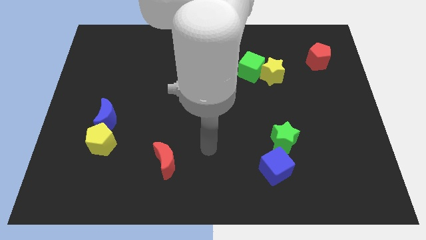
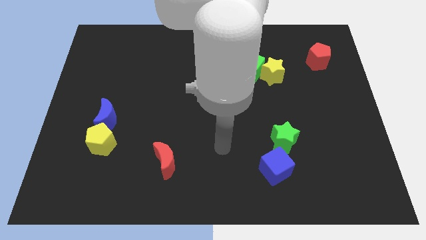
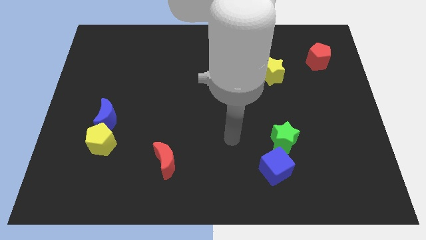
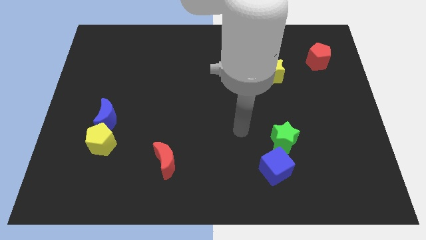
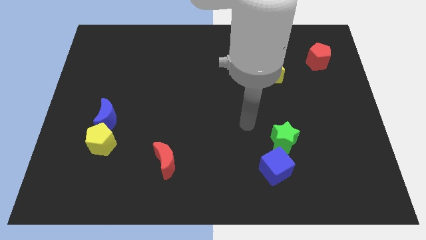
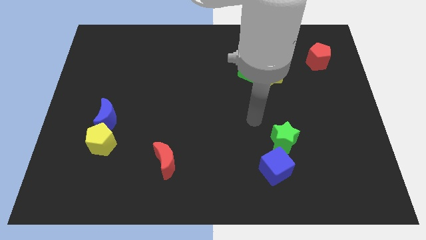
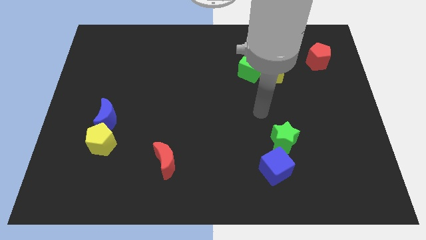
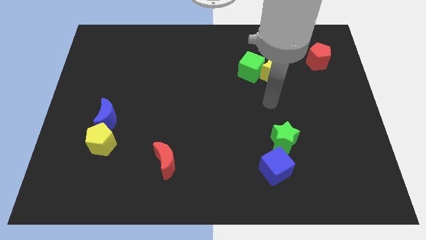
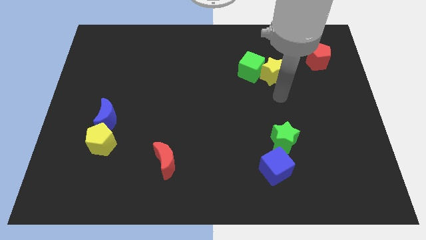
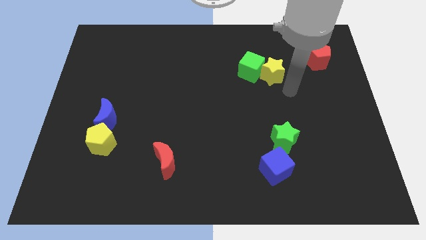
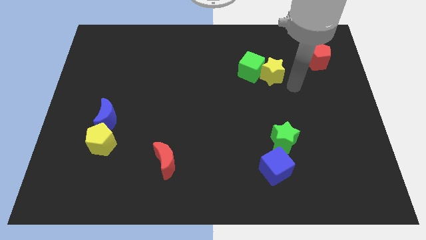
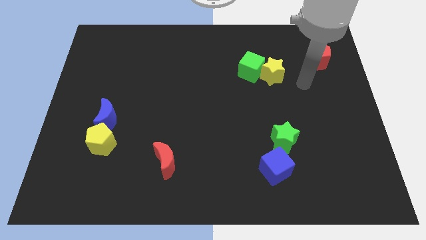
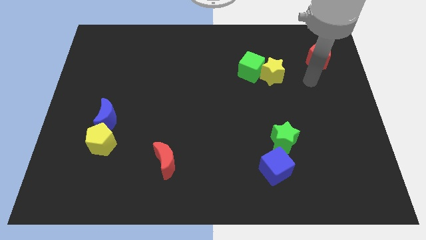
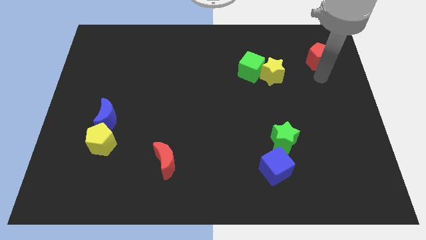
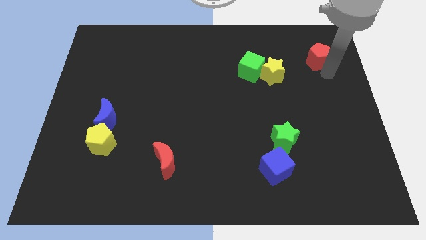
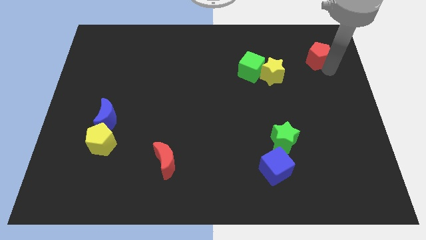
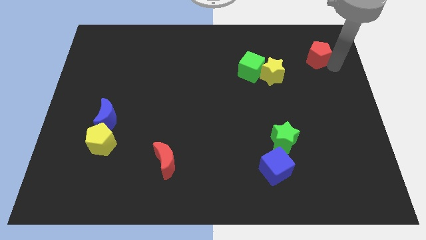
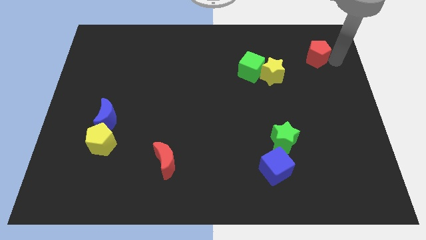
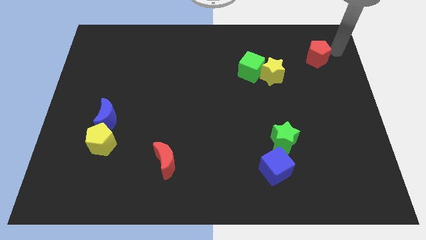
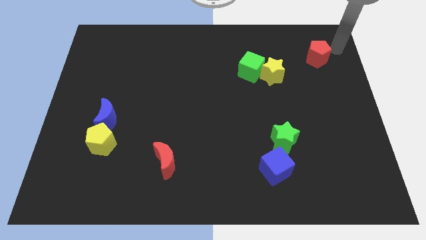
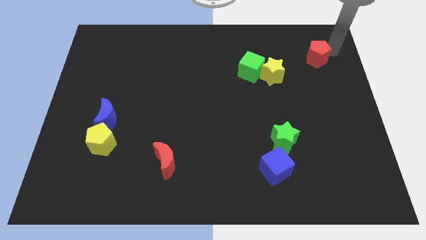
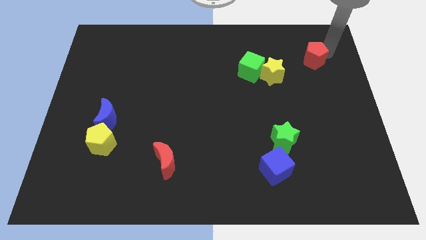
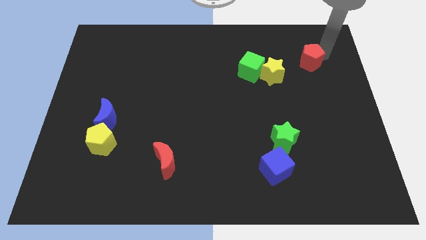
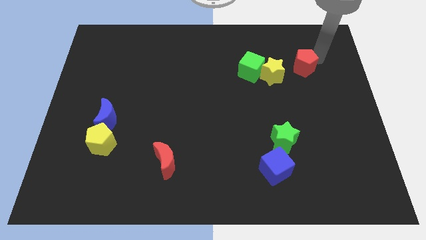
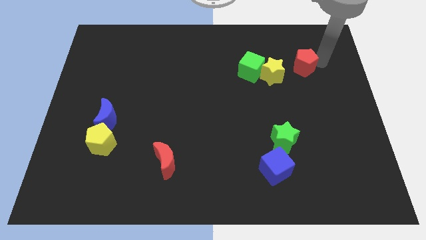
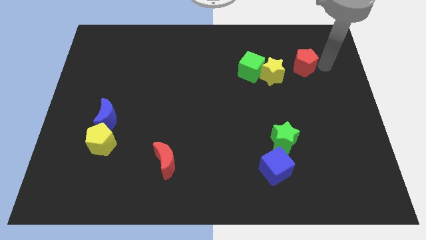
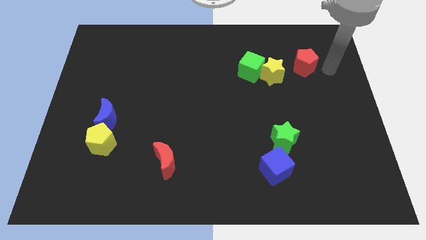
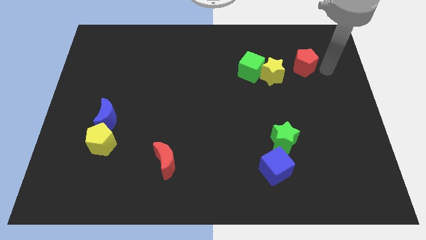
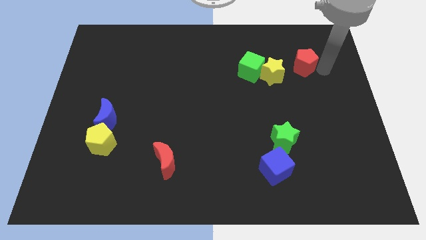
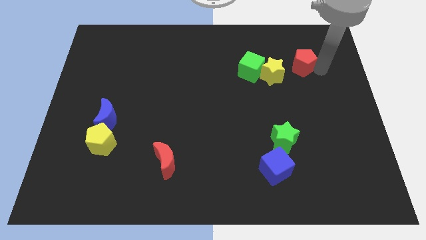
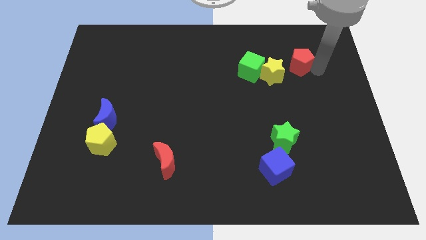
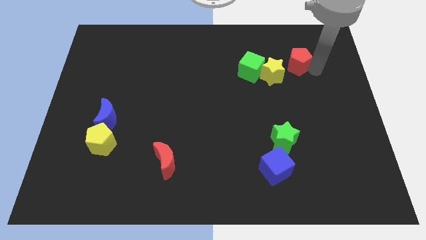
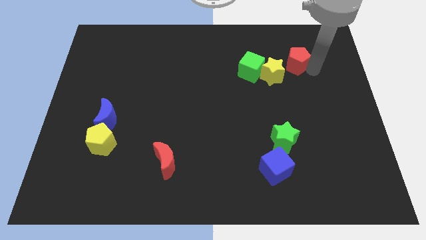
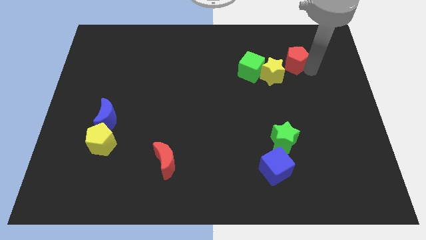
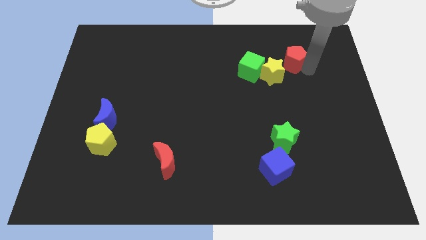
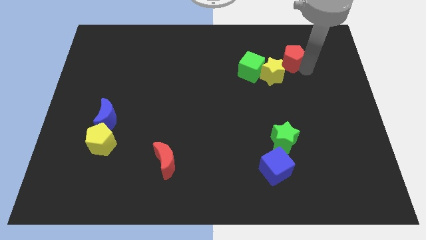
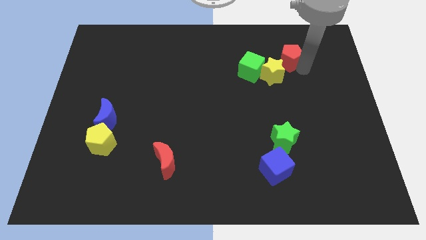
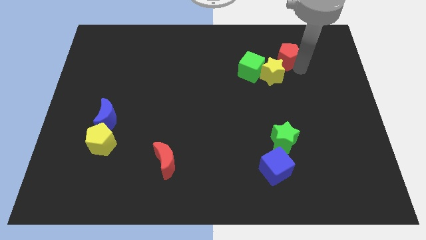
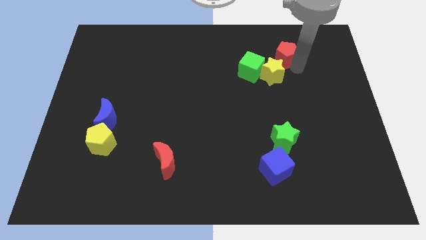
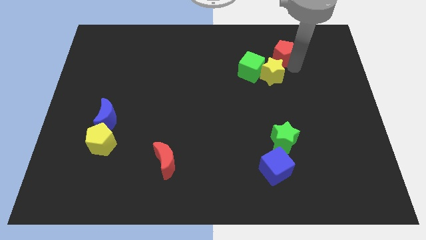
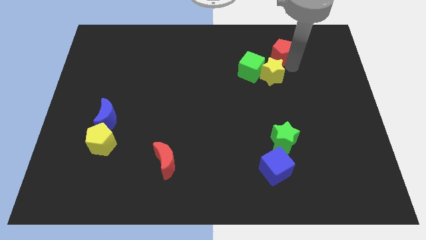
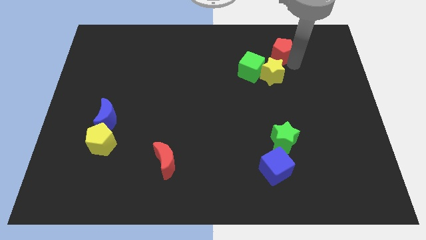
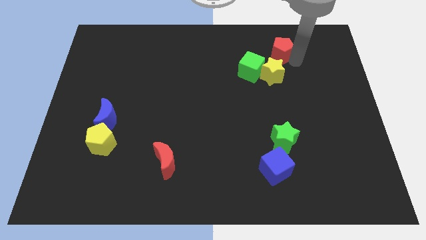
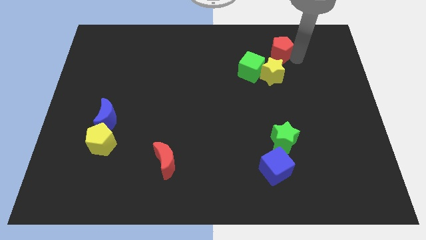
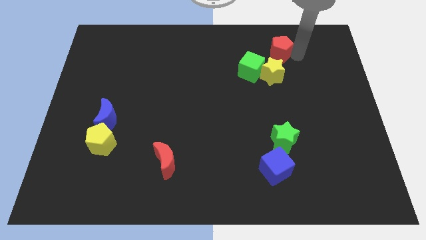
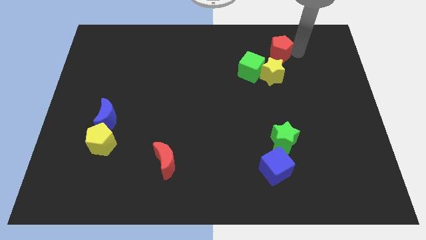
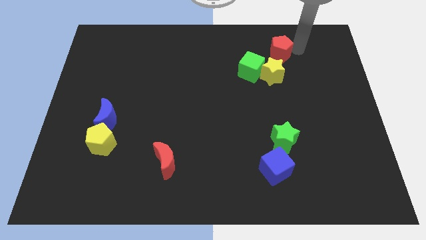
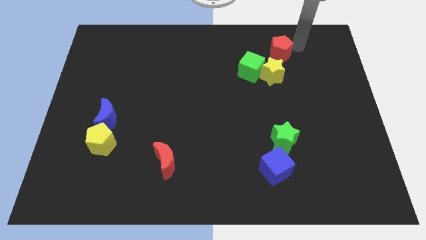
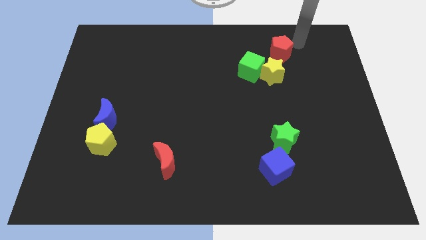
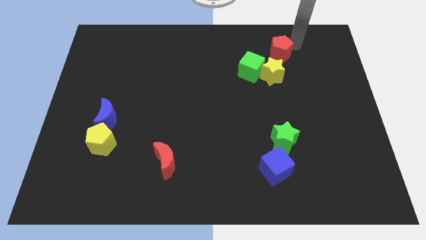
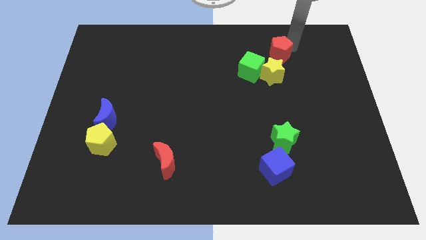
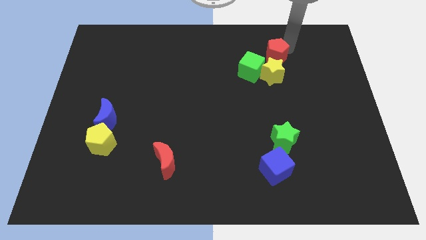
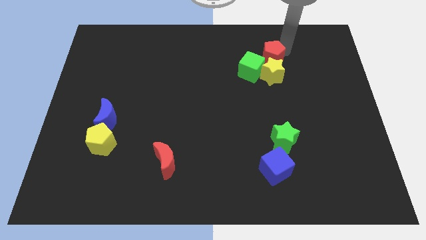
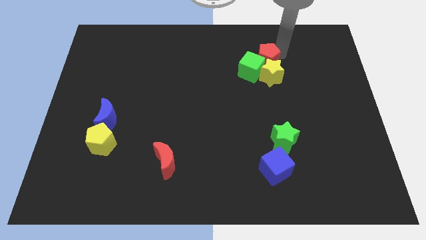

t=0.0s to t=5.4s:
put the red pentagon to the top left of the yellow star

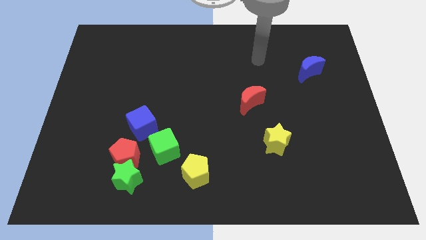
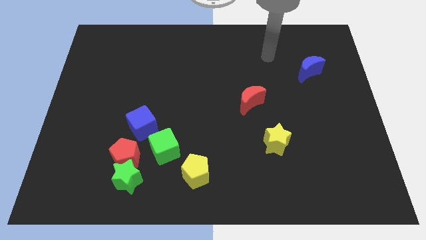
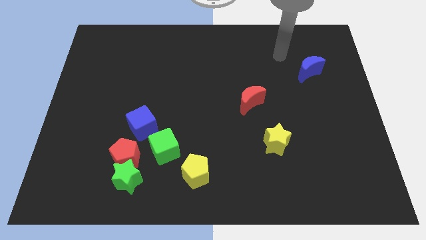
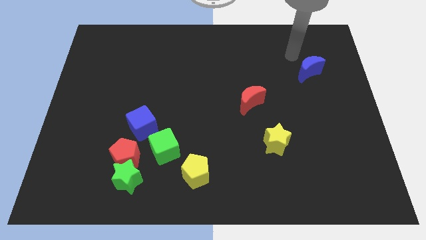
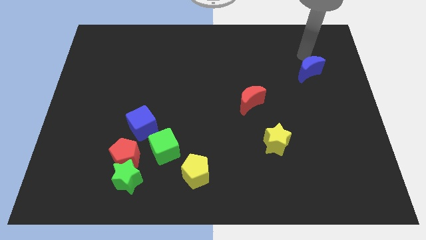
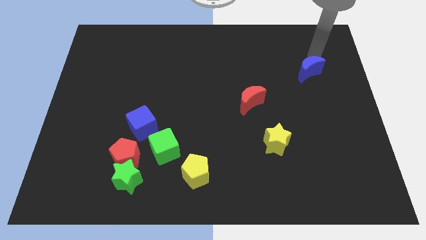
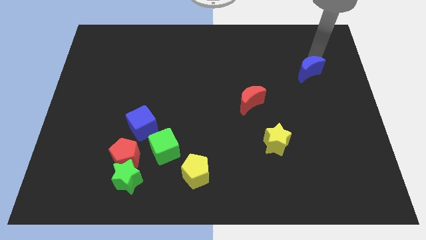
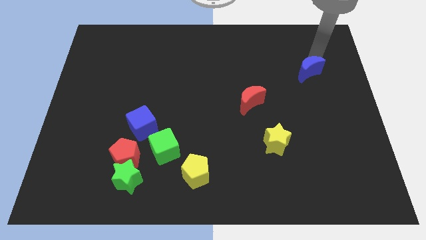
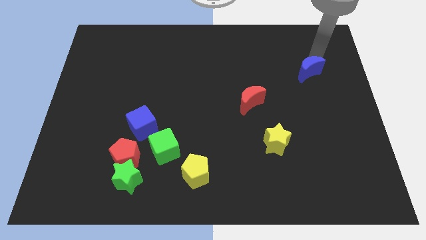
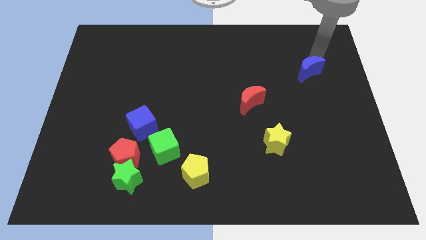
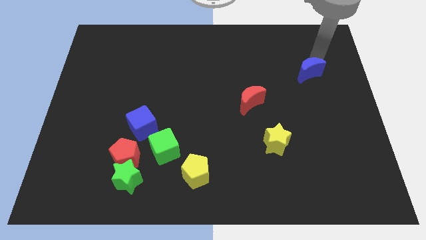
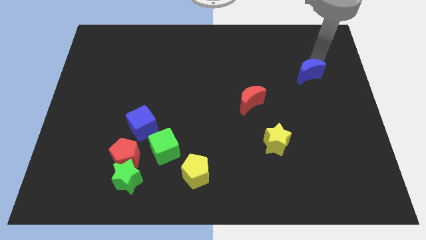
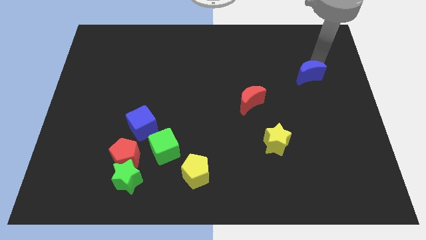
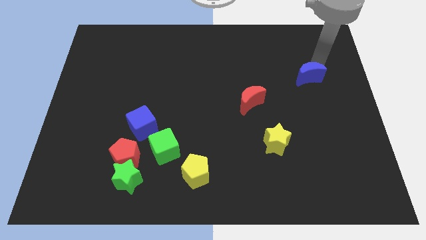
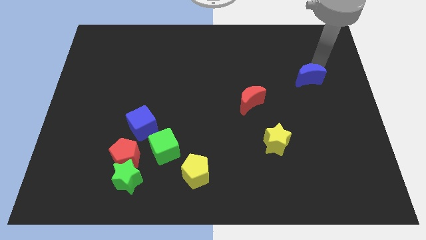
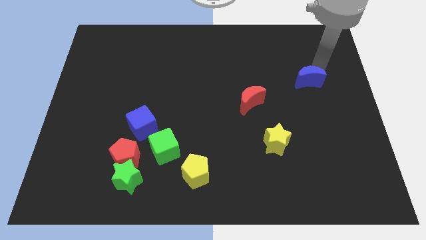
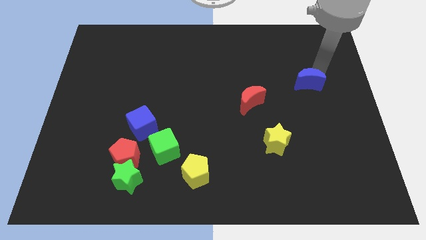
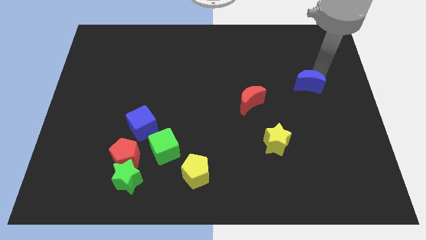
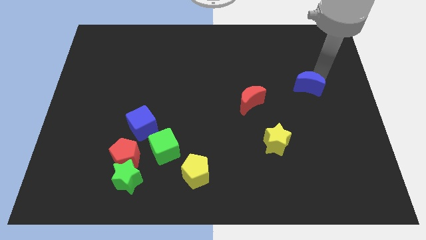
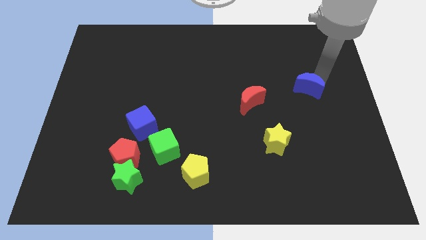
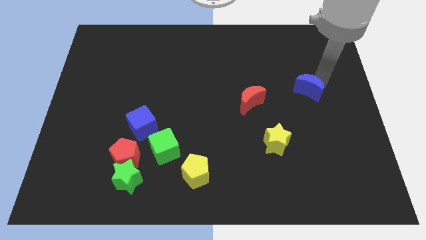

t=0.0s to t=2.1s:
put the blue moon to the right of the red moon
